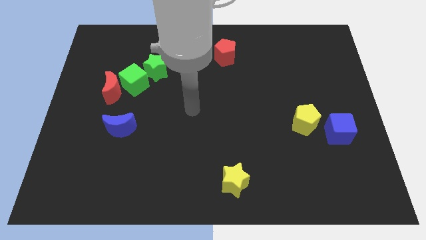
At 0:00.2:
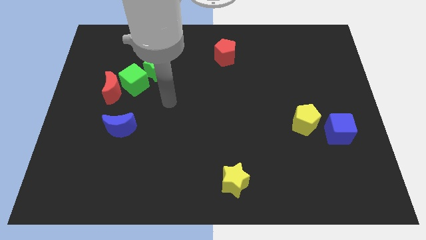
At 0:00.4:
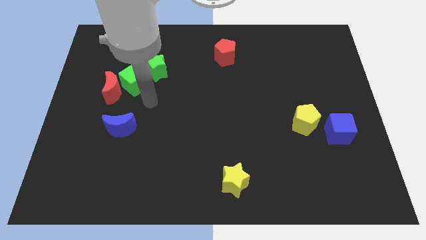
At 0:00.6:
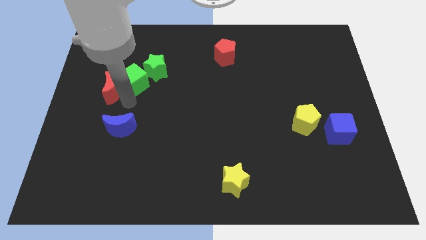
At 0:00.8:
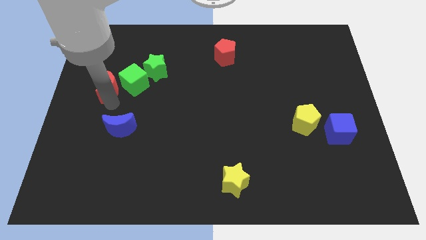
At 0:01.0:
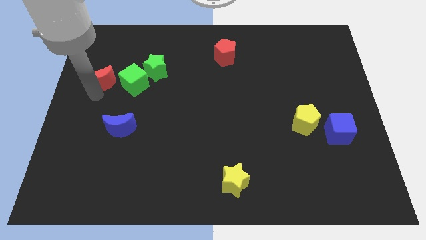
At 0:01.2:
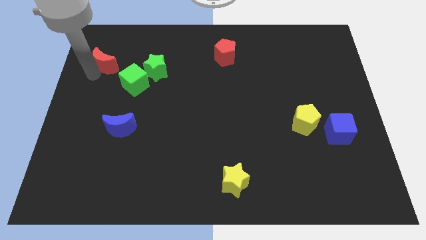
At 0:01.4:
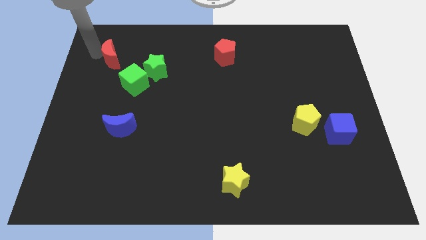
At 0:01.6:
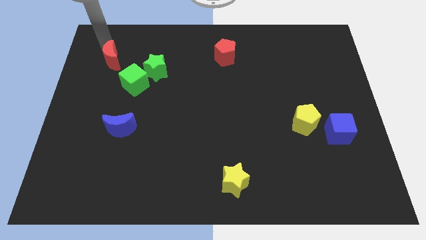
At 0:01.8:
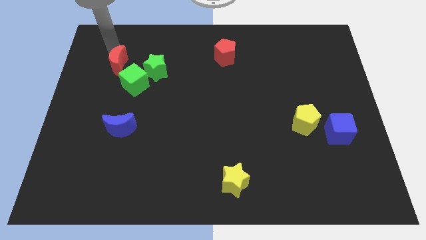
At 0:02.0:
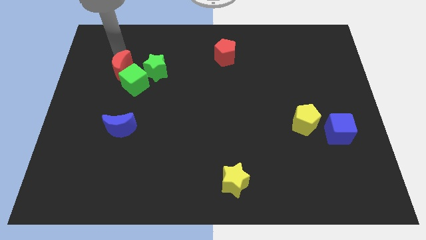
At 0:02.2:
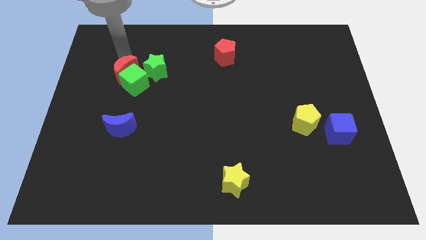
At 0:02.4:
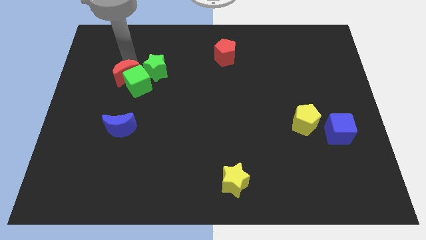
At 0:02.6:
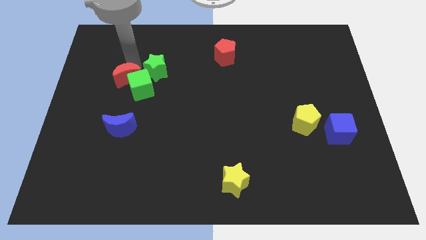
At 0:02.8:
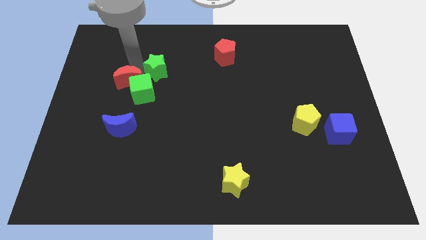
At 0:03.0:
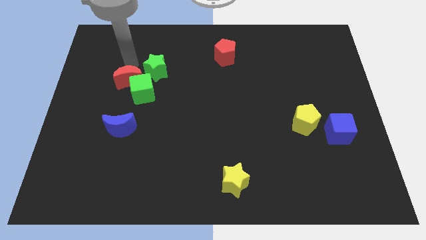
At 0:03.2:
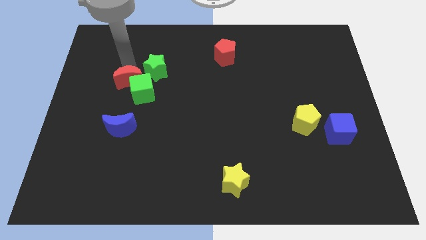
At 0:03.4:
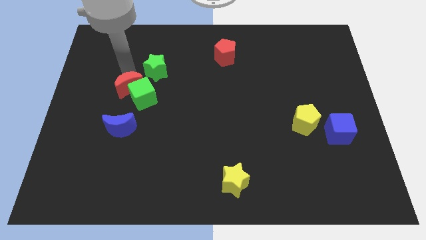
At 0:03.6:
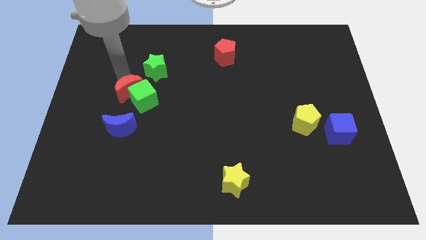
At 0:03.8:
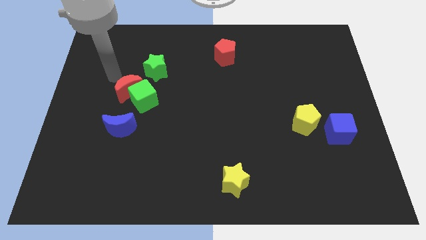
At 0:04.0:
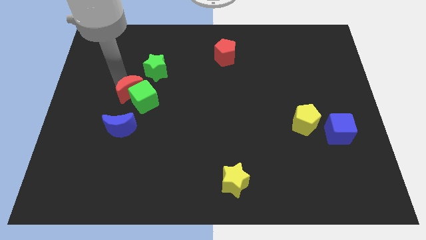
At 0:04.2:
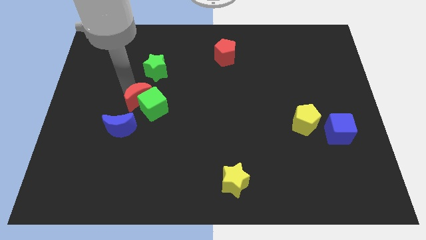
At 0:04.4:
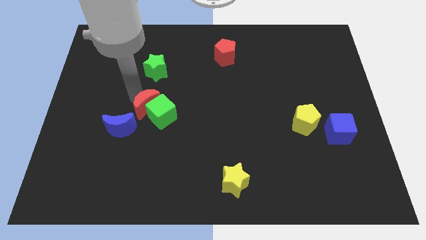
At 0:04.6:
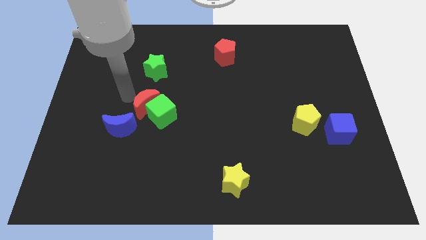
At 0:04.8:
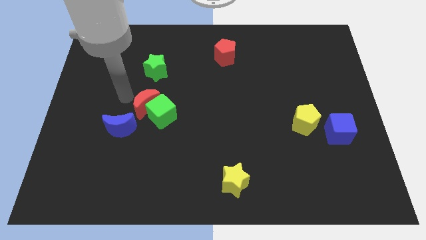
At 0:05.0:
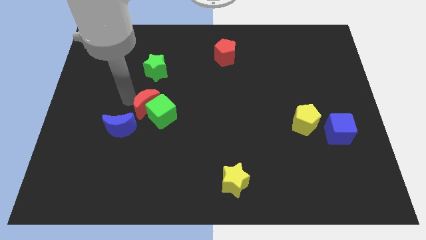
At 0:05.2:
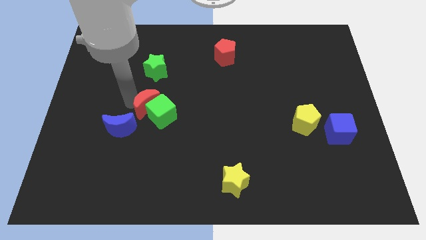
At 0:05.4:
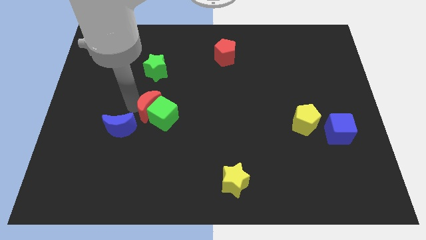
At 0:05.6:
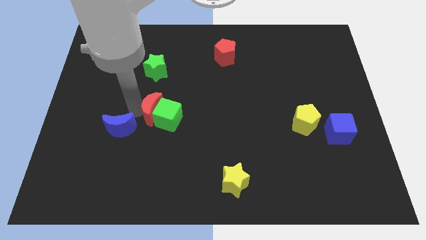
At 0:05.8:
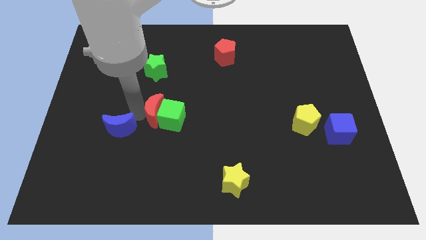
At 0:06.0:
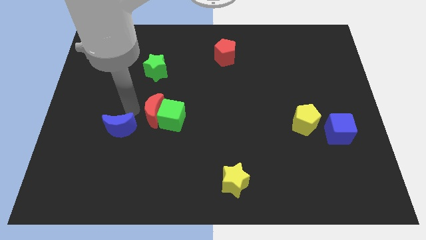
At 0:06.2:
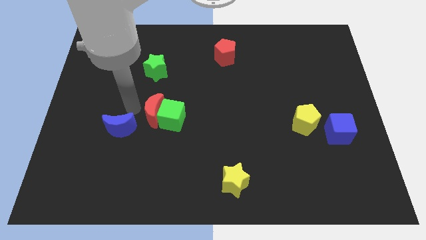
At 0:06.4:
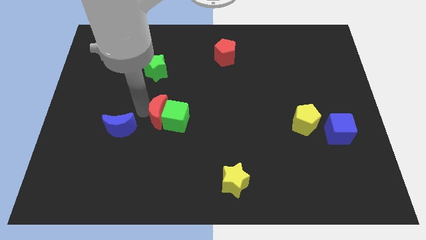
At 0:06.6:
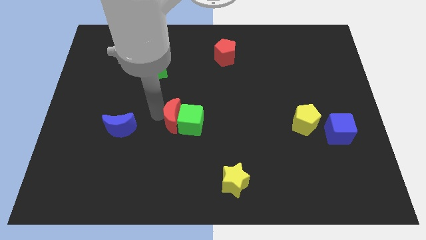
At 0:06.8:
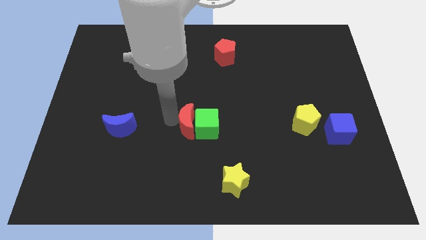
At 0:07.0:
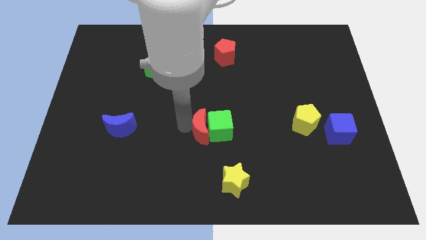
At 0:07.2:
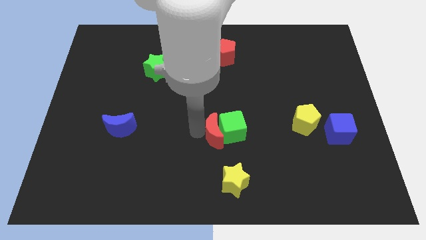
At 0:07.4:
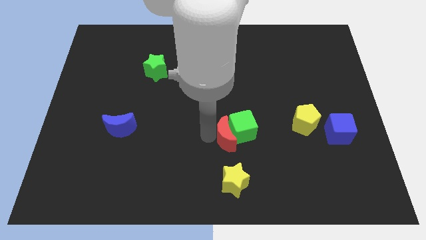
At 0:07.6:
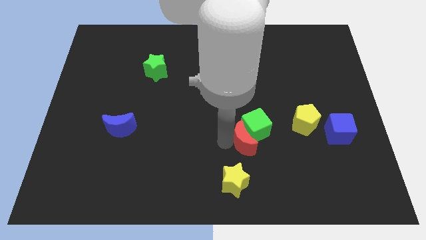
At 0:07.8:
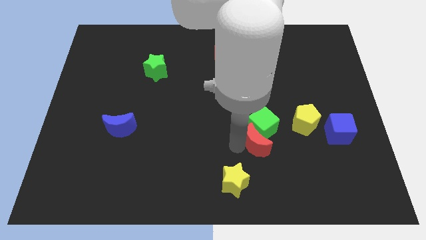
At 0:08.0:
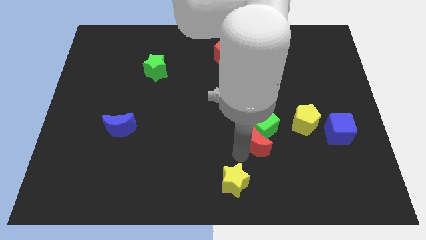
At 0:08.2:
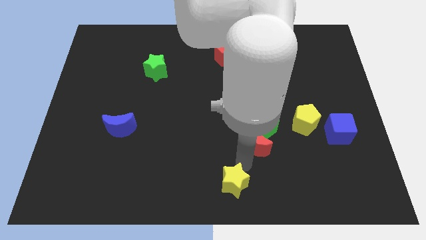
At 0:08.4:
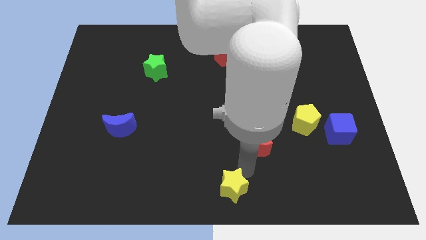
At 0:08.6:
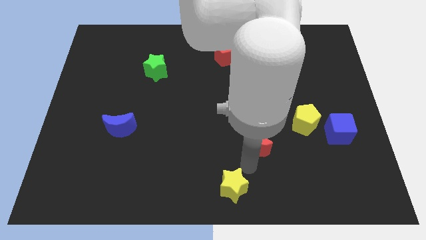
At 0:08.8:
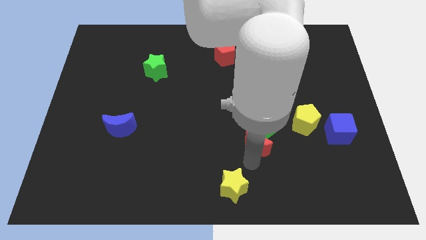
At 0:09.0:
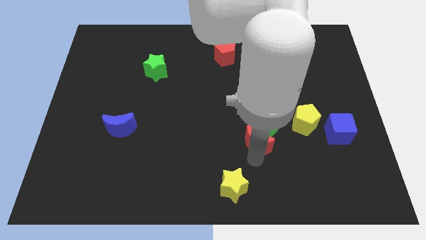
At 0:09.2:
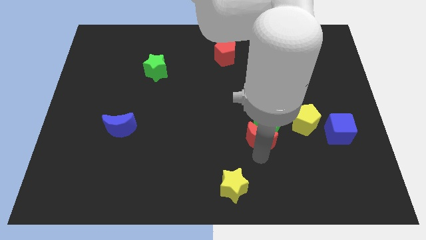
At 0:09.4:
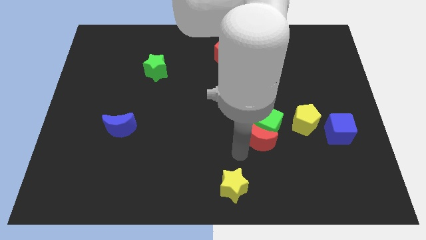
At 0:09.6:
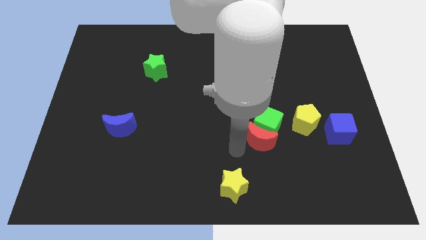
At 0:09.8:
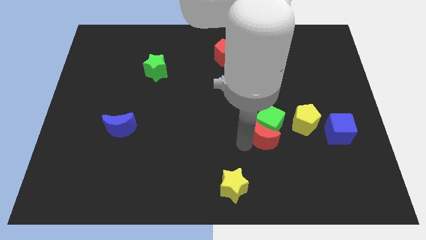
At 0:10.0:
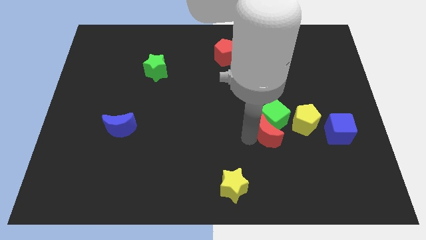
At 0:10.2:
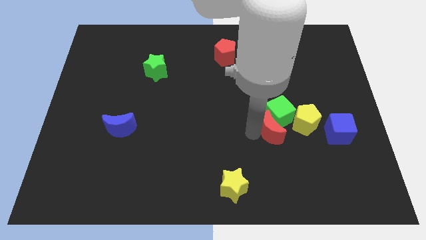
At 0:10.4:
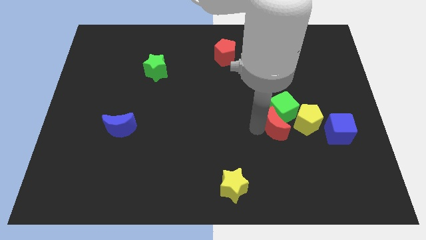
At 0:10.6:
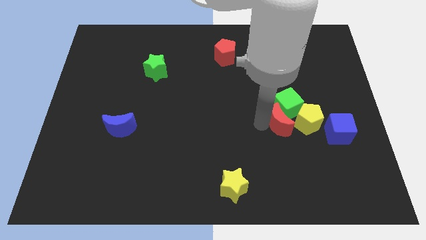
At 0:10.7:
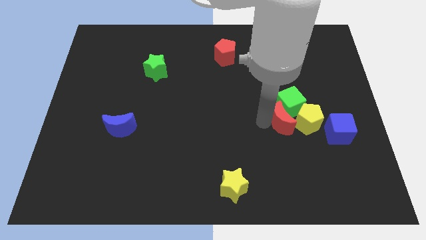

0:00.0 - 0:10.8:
move the red moon next to the yellow pentagon

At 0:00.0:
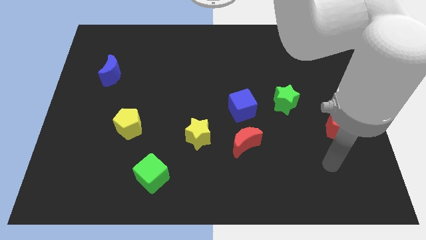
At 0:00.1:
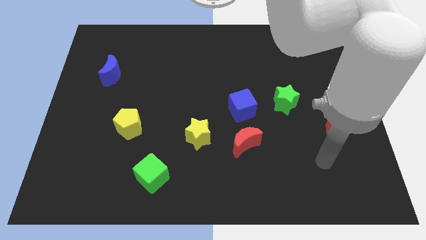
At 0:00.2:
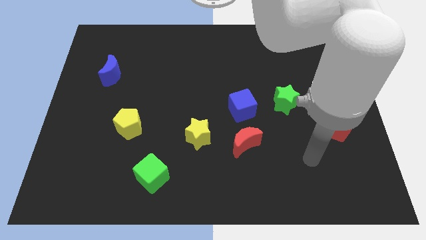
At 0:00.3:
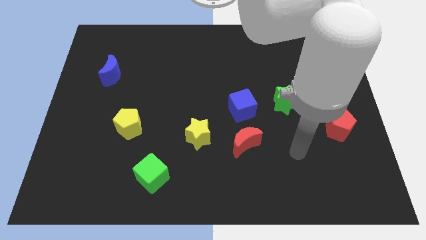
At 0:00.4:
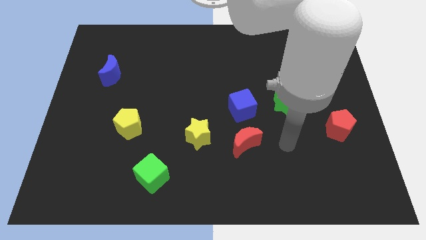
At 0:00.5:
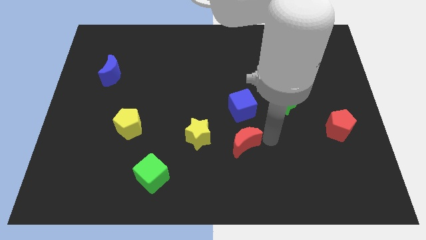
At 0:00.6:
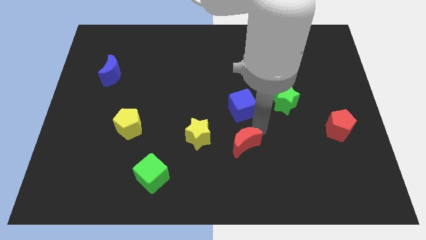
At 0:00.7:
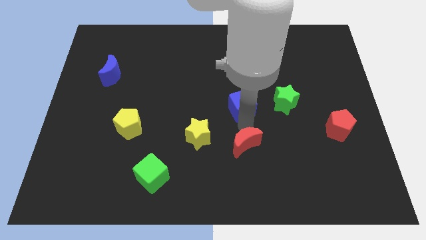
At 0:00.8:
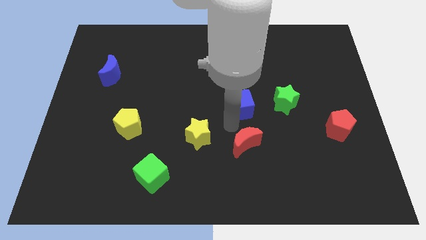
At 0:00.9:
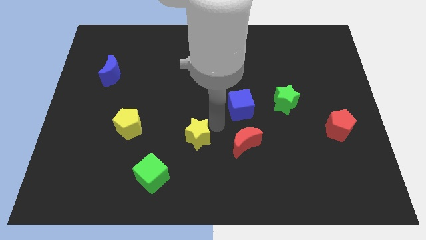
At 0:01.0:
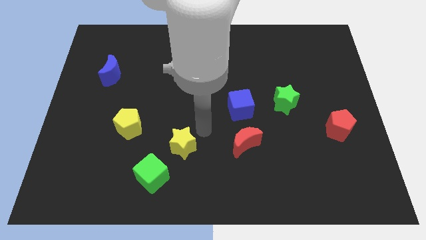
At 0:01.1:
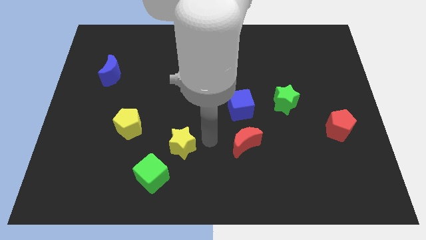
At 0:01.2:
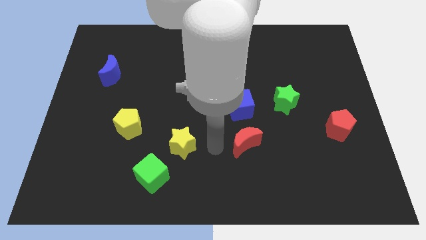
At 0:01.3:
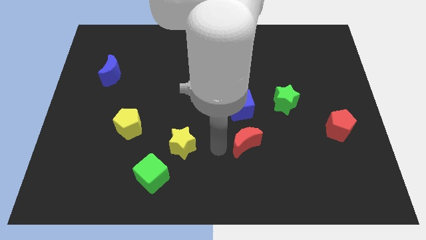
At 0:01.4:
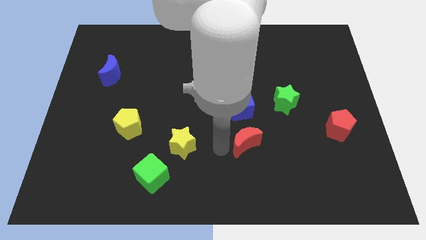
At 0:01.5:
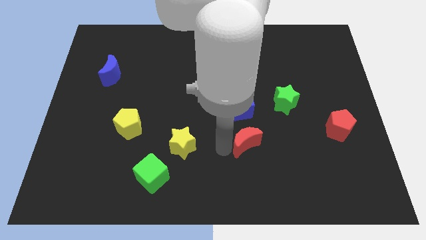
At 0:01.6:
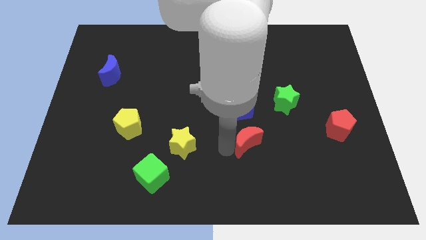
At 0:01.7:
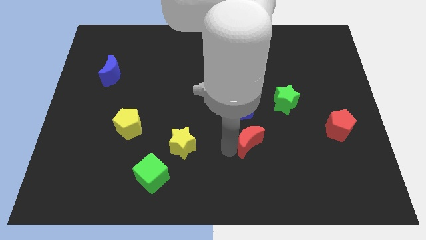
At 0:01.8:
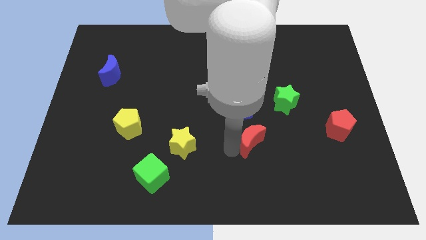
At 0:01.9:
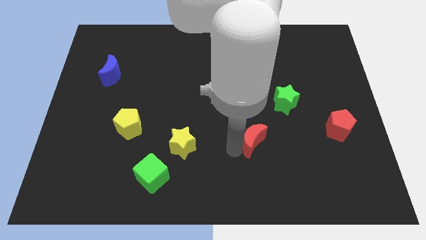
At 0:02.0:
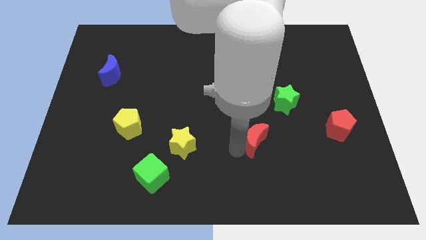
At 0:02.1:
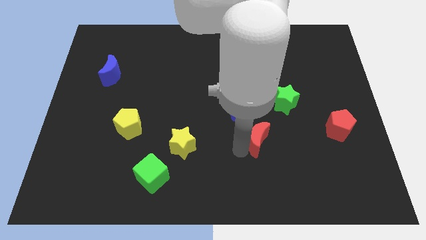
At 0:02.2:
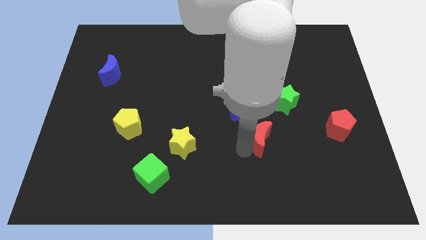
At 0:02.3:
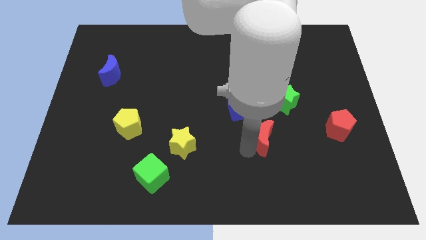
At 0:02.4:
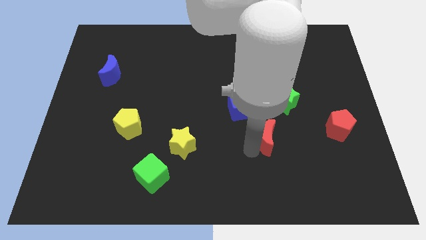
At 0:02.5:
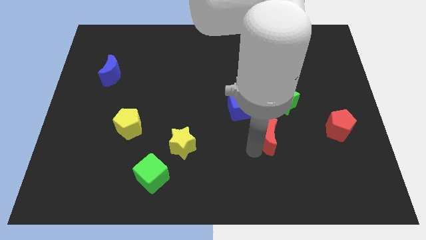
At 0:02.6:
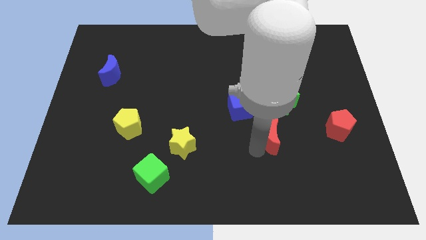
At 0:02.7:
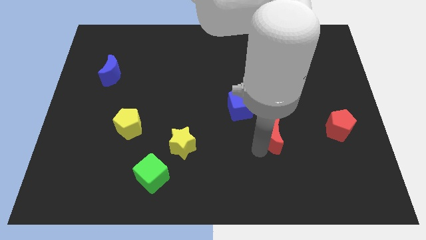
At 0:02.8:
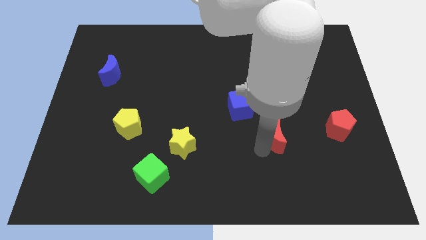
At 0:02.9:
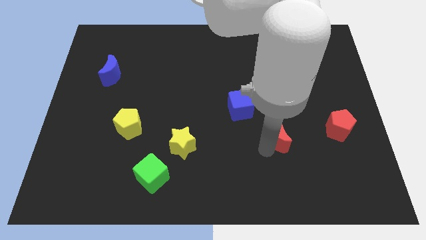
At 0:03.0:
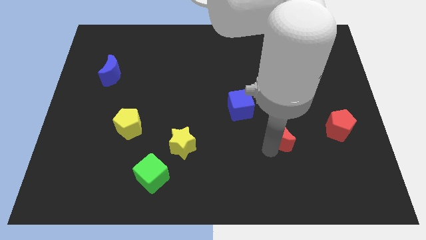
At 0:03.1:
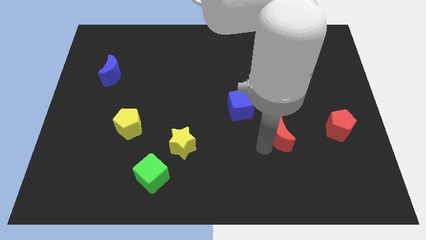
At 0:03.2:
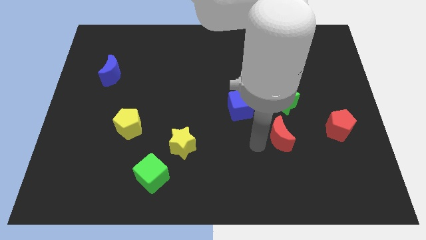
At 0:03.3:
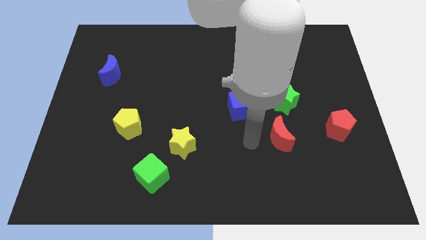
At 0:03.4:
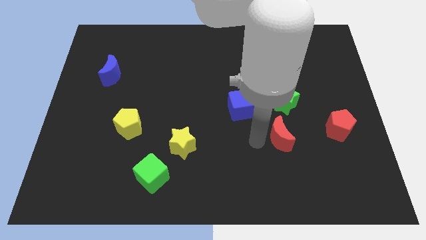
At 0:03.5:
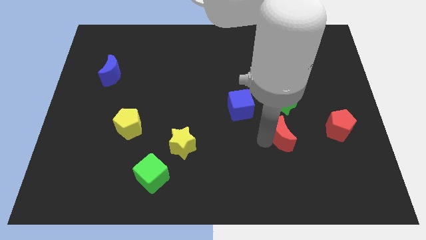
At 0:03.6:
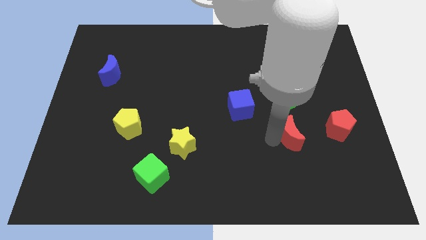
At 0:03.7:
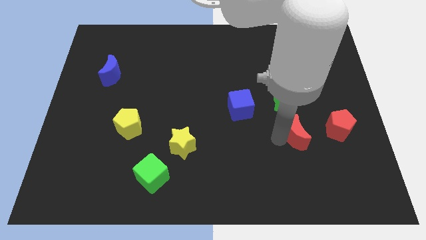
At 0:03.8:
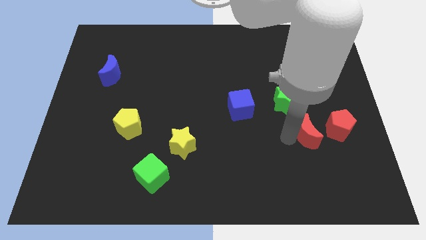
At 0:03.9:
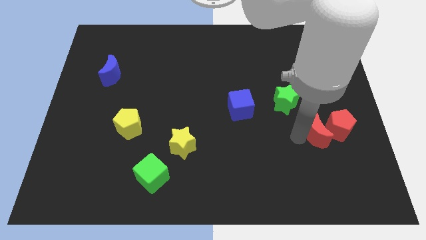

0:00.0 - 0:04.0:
put the red moon towards the red pentagon
